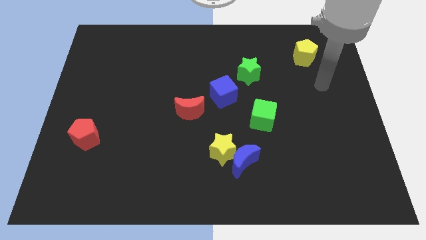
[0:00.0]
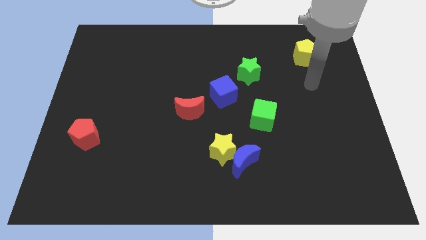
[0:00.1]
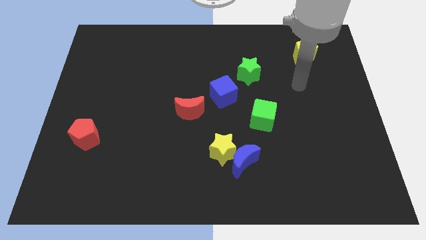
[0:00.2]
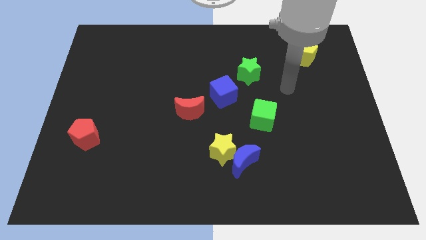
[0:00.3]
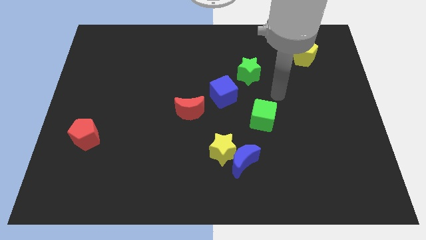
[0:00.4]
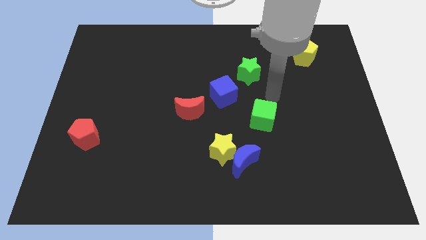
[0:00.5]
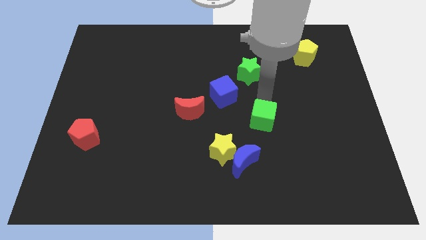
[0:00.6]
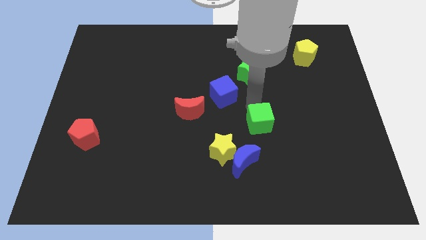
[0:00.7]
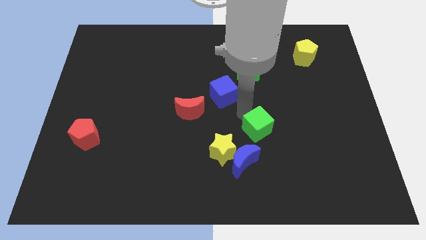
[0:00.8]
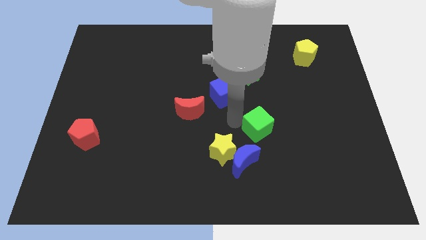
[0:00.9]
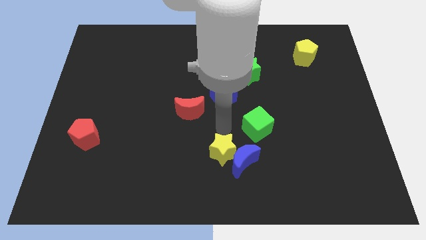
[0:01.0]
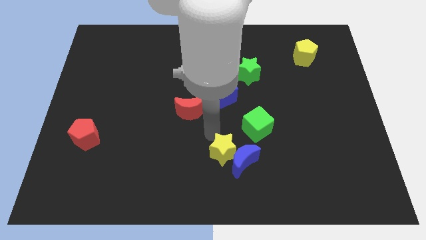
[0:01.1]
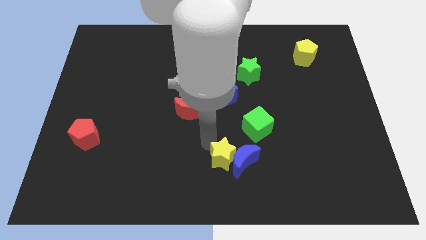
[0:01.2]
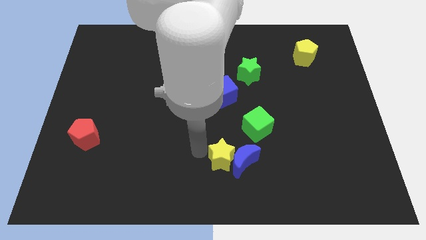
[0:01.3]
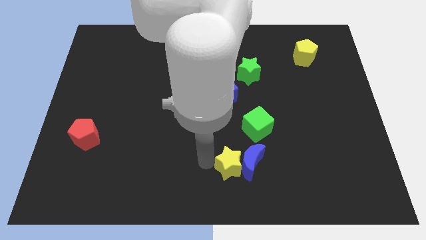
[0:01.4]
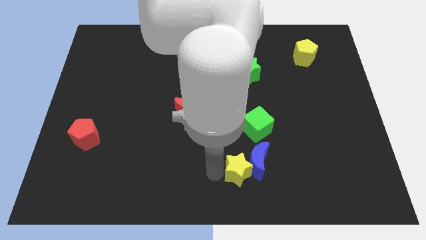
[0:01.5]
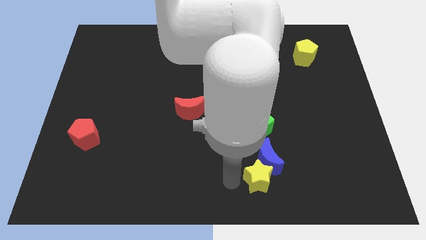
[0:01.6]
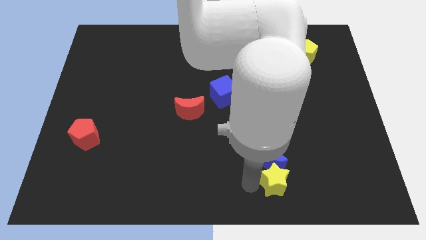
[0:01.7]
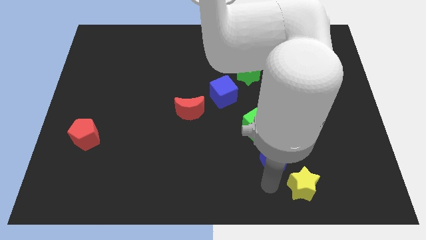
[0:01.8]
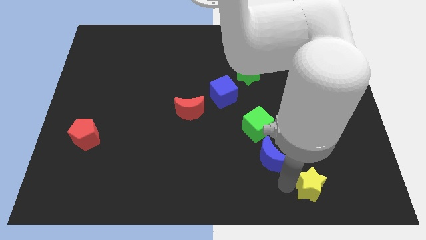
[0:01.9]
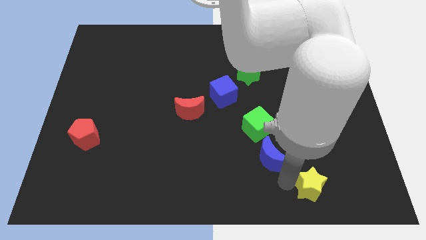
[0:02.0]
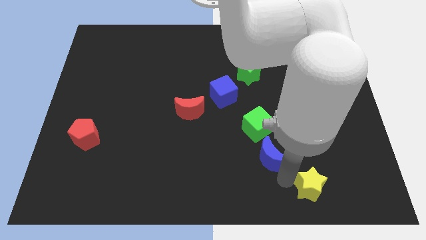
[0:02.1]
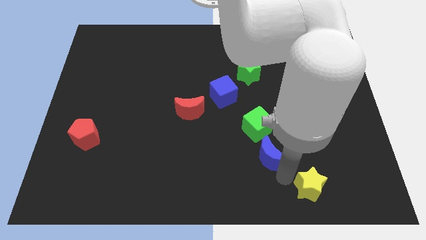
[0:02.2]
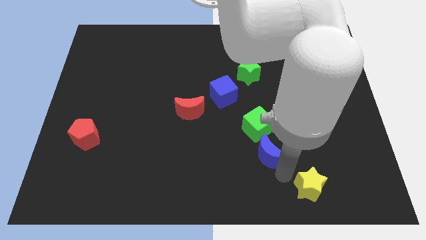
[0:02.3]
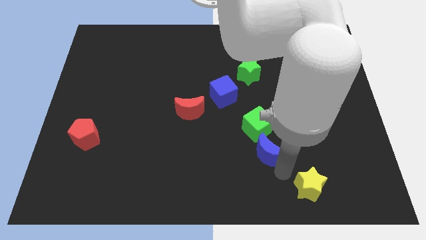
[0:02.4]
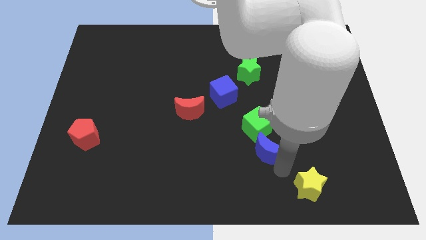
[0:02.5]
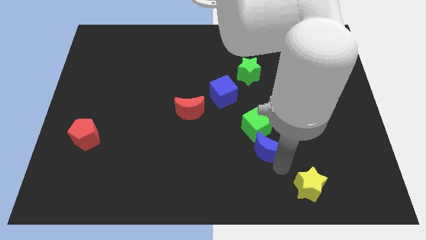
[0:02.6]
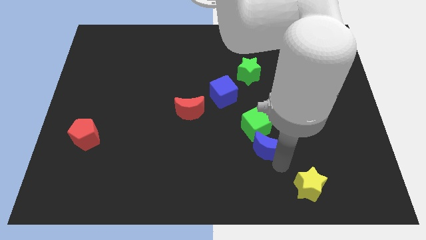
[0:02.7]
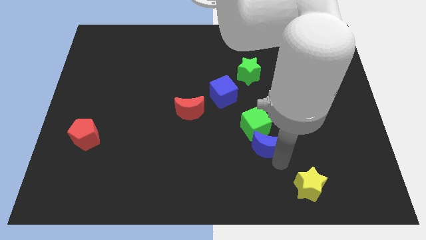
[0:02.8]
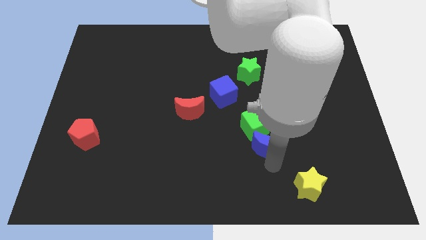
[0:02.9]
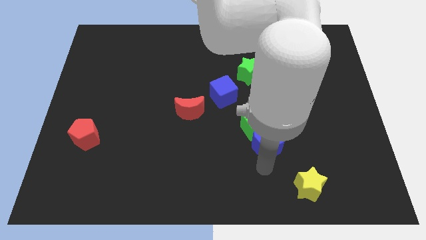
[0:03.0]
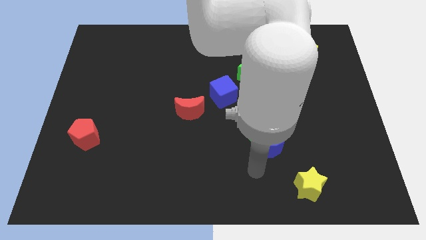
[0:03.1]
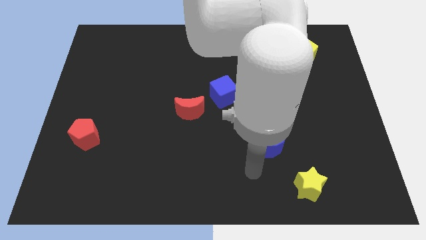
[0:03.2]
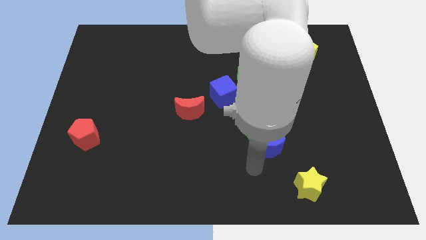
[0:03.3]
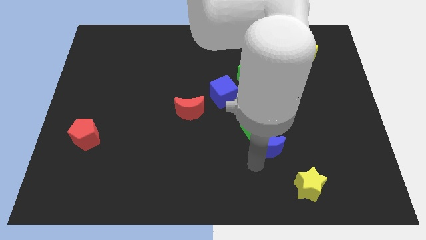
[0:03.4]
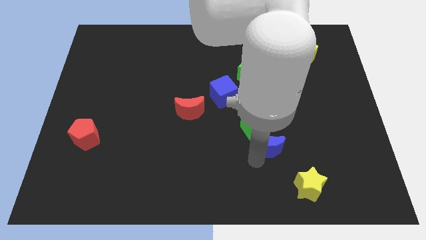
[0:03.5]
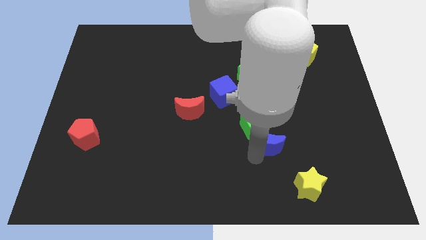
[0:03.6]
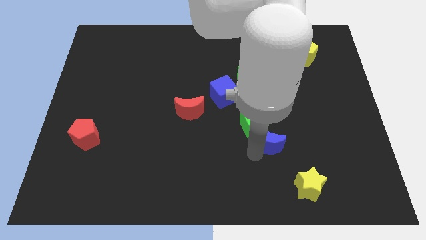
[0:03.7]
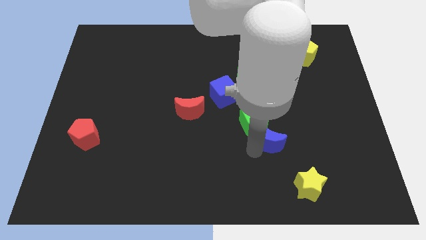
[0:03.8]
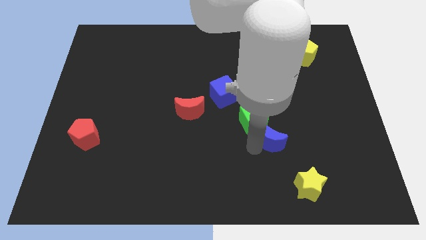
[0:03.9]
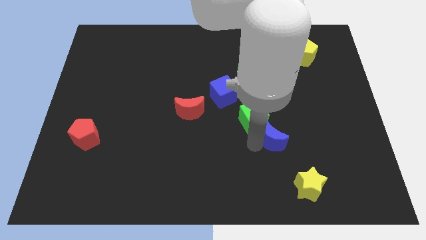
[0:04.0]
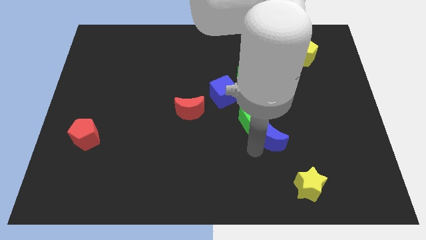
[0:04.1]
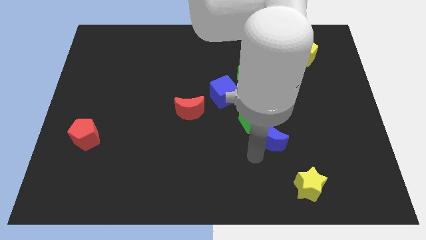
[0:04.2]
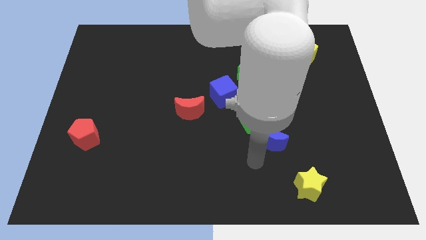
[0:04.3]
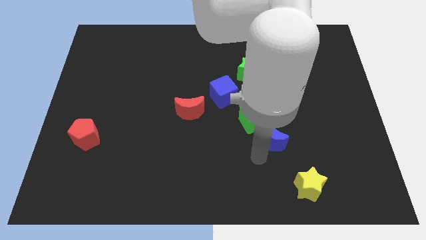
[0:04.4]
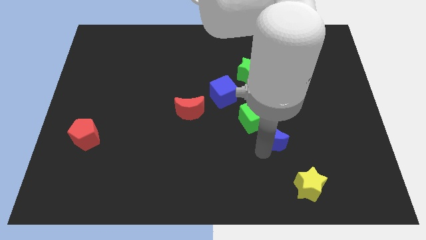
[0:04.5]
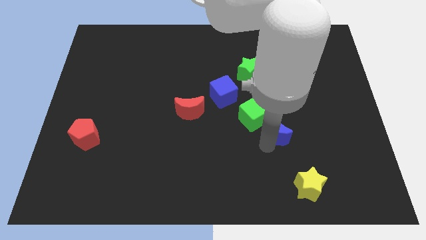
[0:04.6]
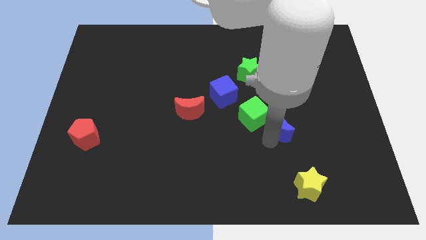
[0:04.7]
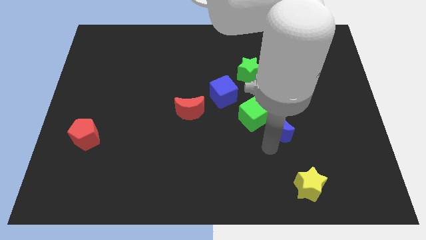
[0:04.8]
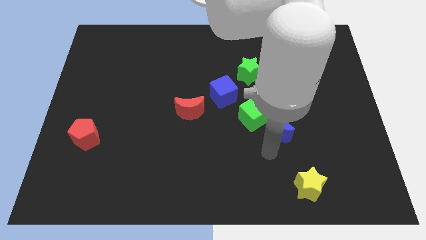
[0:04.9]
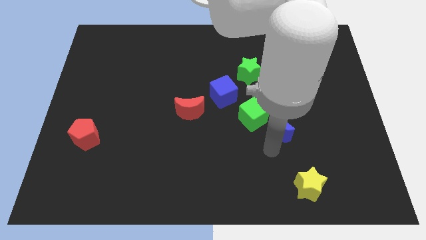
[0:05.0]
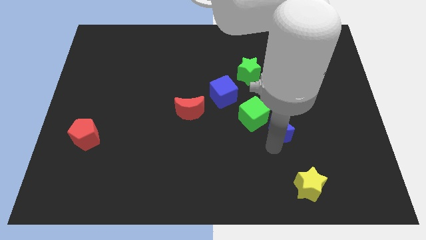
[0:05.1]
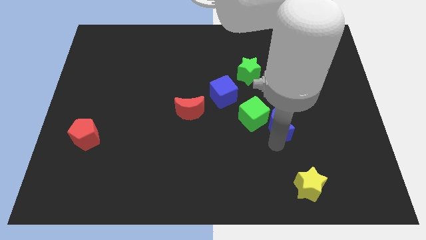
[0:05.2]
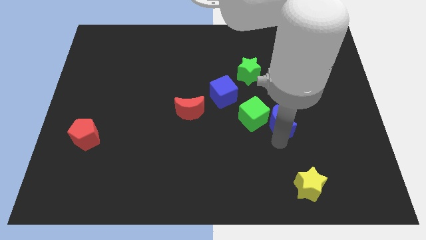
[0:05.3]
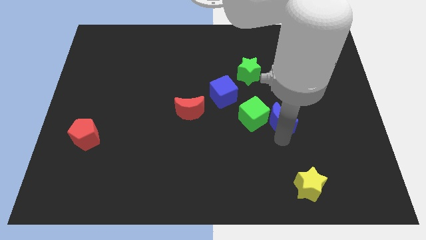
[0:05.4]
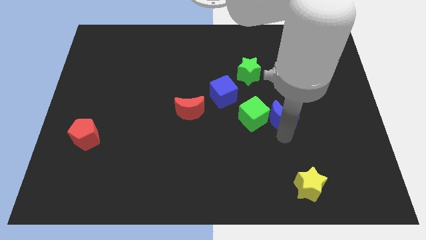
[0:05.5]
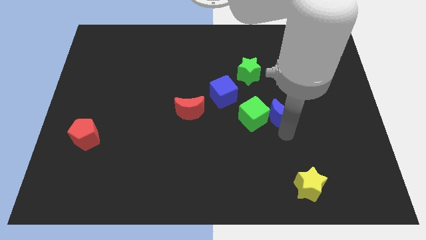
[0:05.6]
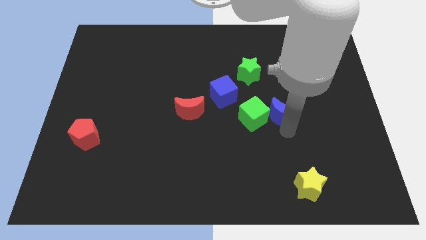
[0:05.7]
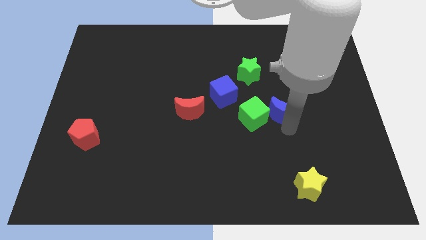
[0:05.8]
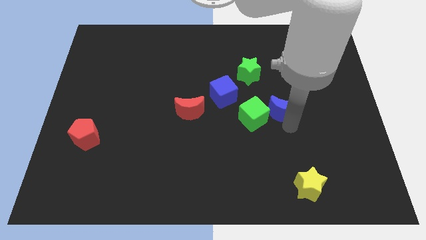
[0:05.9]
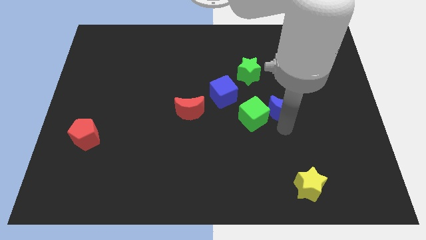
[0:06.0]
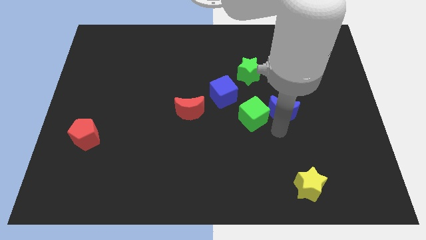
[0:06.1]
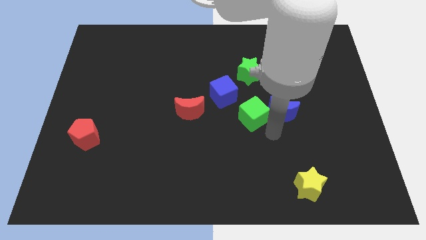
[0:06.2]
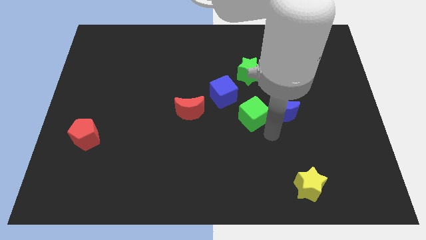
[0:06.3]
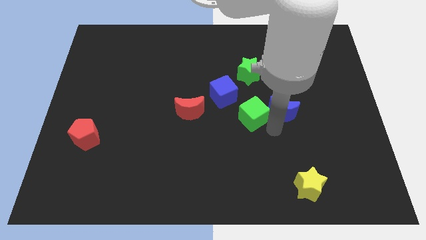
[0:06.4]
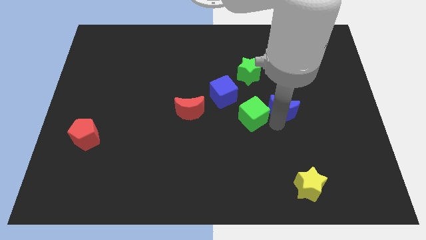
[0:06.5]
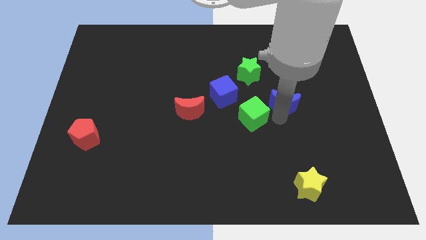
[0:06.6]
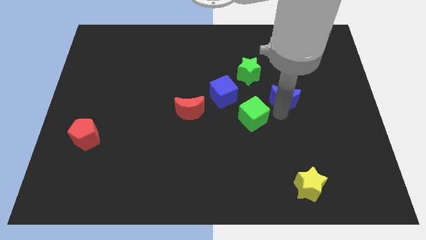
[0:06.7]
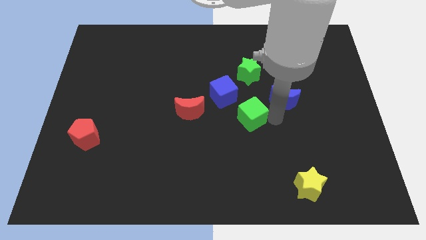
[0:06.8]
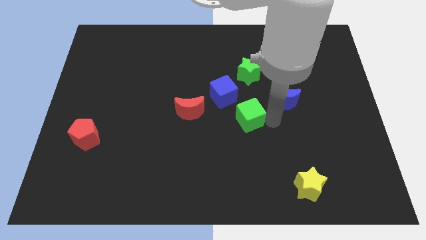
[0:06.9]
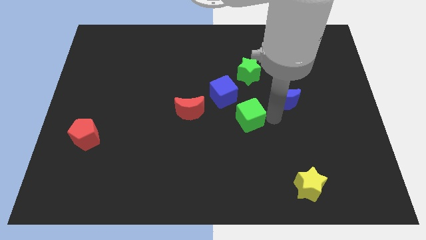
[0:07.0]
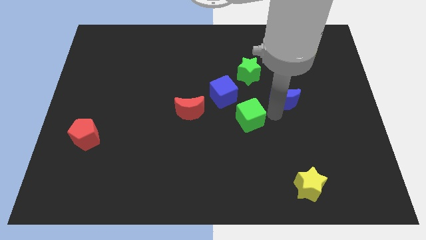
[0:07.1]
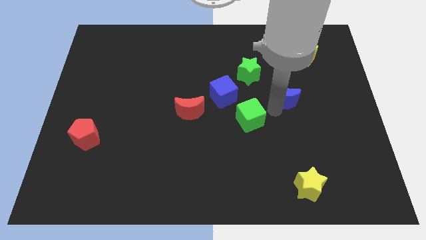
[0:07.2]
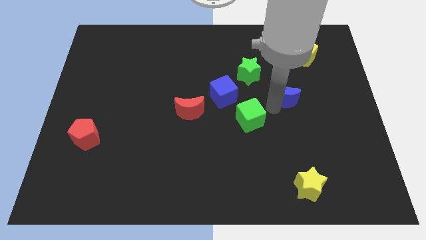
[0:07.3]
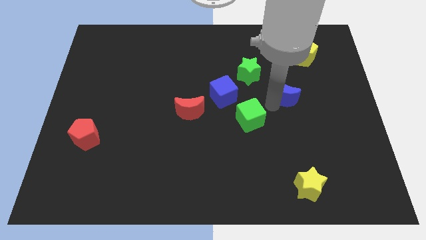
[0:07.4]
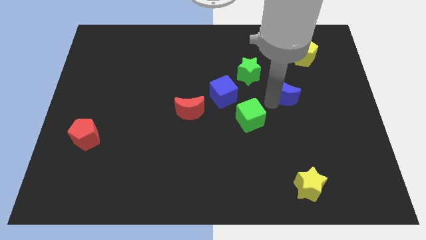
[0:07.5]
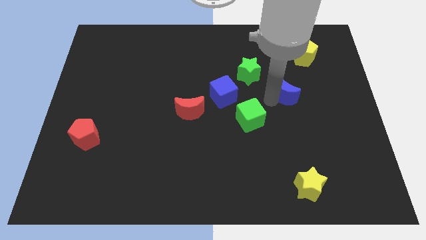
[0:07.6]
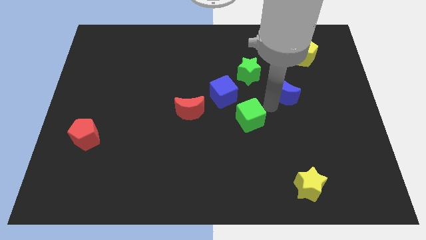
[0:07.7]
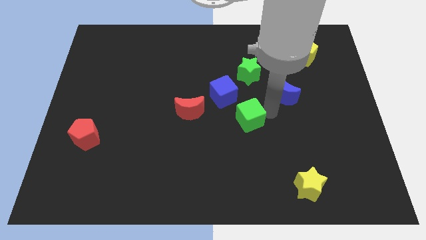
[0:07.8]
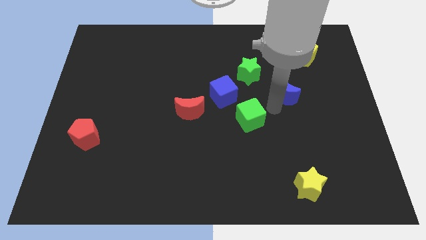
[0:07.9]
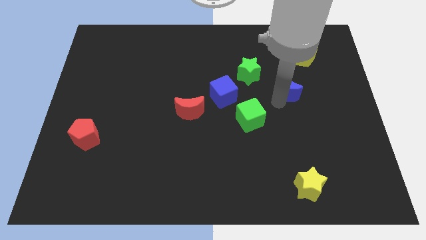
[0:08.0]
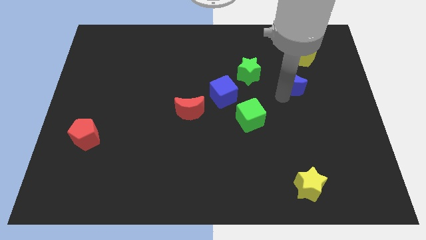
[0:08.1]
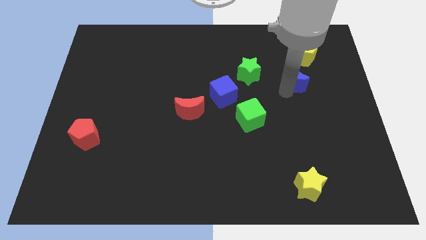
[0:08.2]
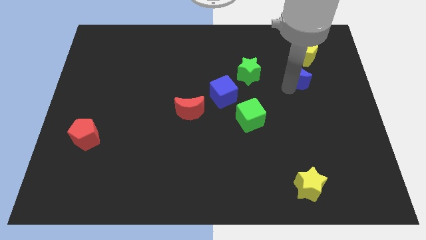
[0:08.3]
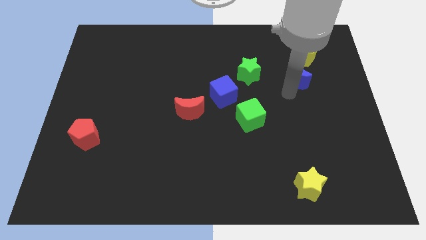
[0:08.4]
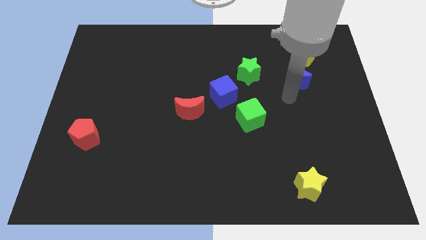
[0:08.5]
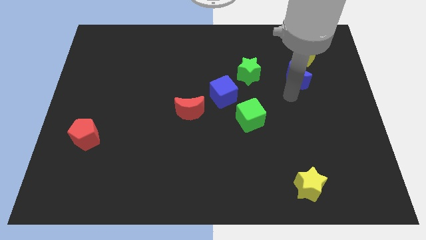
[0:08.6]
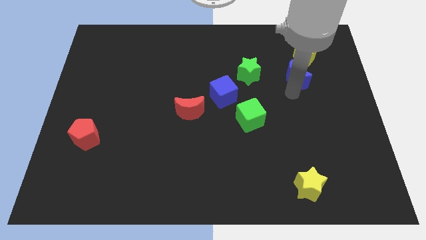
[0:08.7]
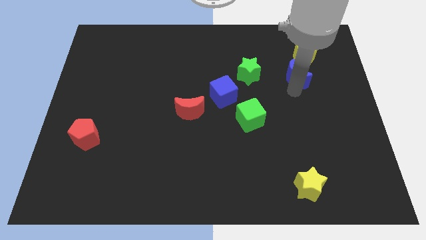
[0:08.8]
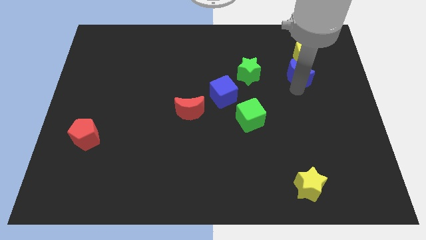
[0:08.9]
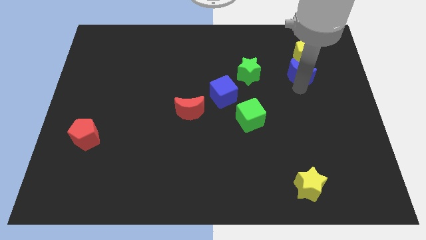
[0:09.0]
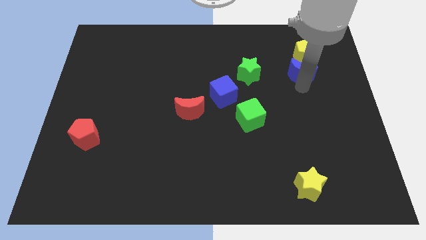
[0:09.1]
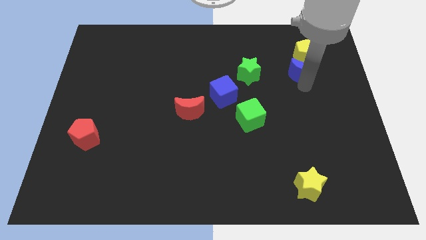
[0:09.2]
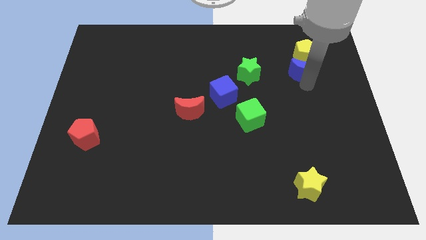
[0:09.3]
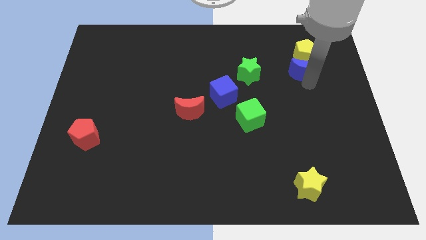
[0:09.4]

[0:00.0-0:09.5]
put the blue moon towards the yellow pentagon
